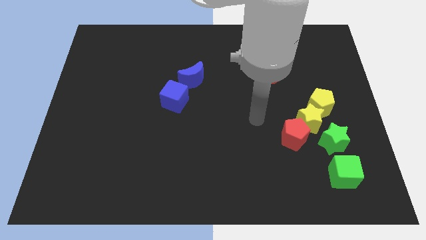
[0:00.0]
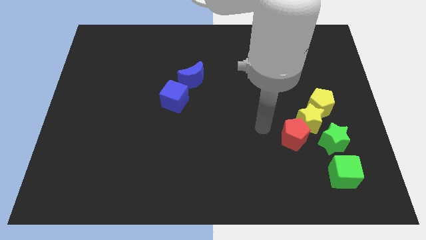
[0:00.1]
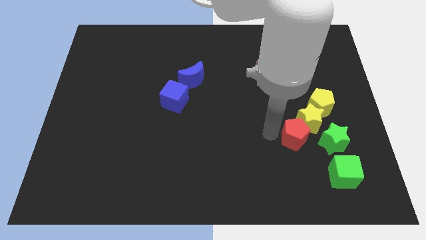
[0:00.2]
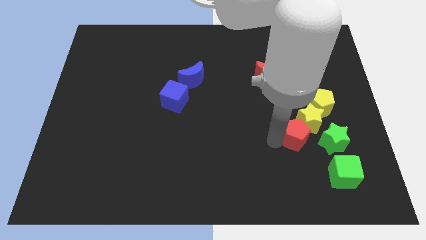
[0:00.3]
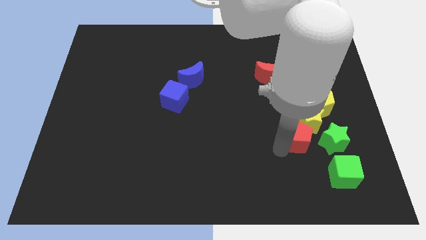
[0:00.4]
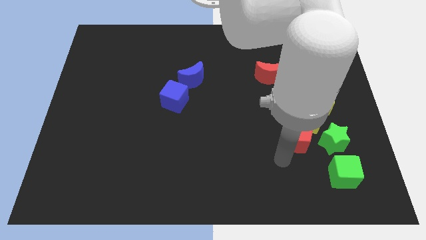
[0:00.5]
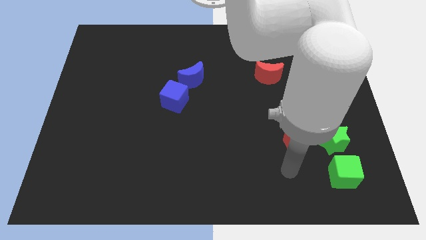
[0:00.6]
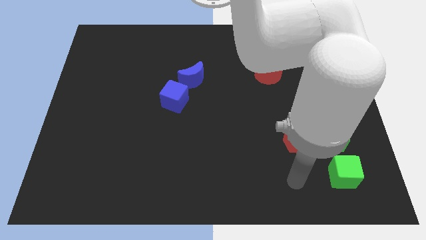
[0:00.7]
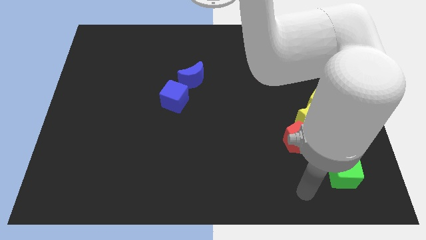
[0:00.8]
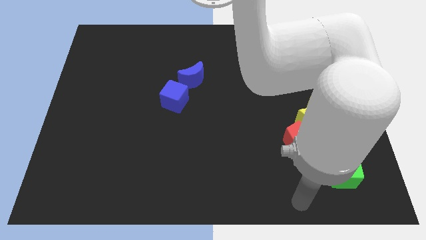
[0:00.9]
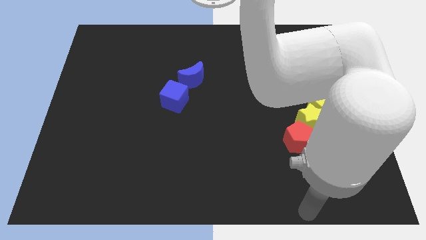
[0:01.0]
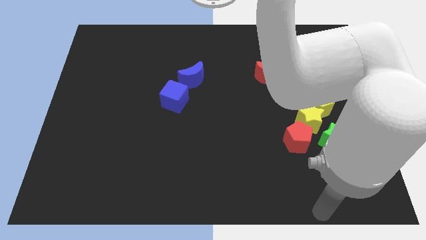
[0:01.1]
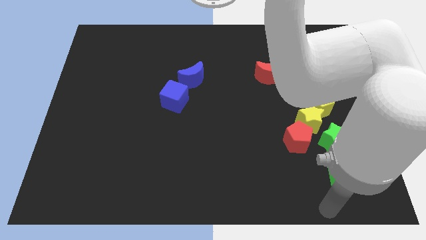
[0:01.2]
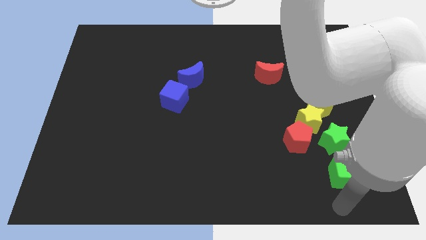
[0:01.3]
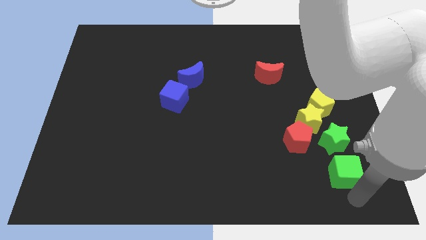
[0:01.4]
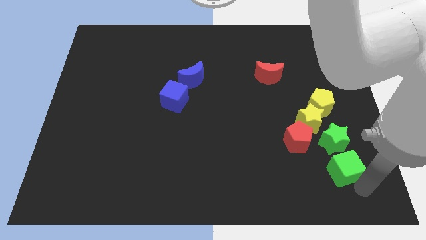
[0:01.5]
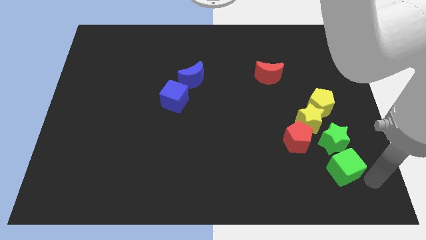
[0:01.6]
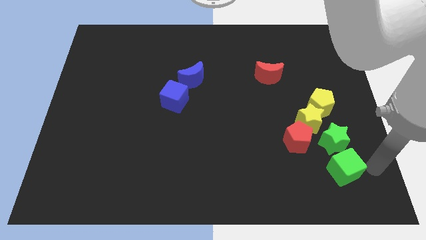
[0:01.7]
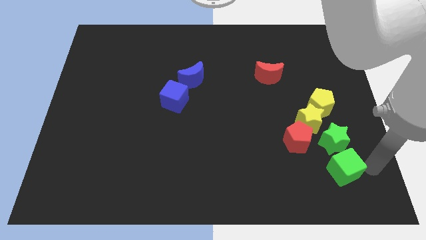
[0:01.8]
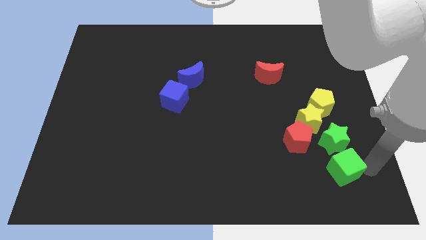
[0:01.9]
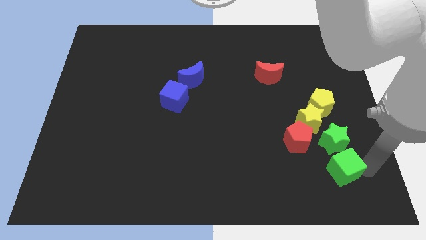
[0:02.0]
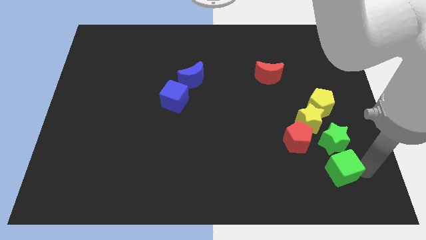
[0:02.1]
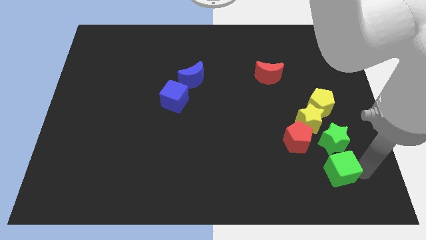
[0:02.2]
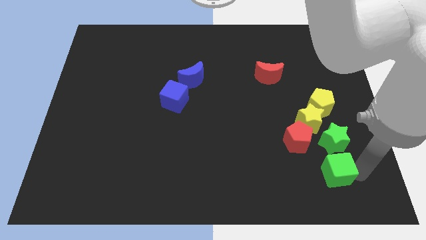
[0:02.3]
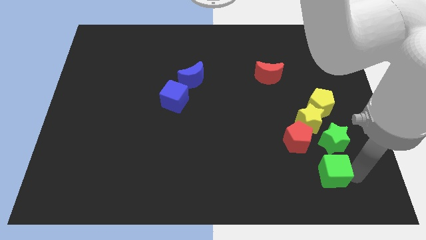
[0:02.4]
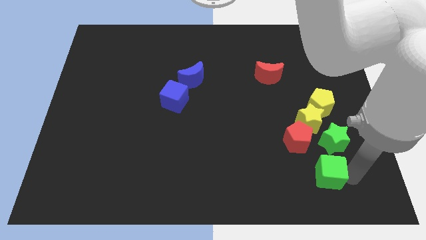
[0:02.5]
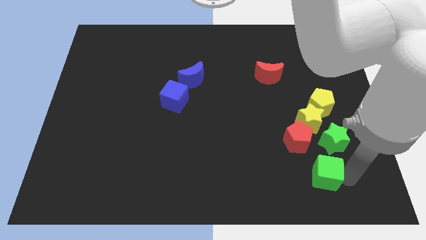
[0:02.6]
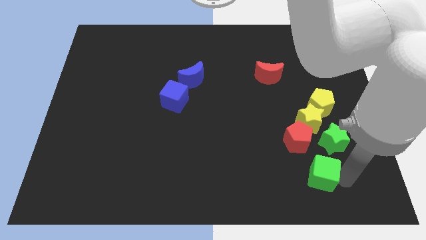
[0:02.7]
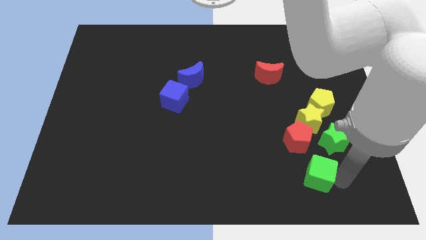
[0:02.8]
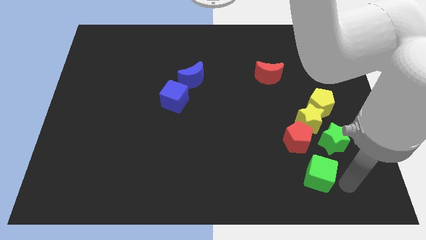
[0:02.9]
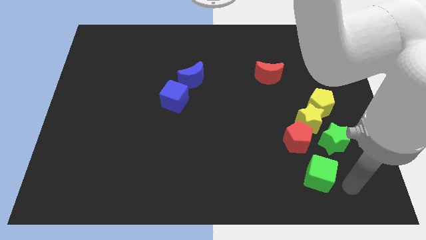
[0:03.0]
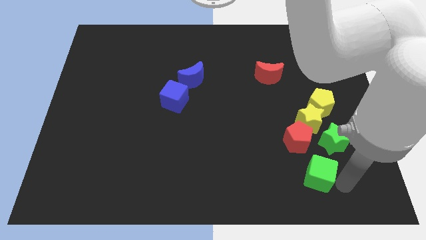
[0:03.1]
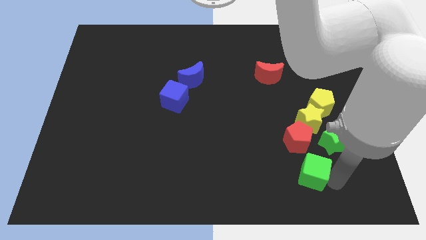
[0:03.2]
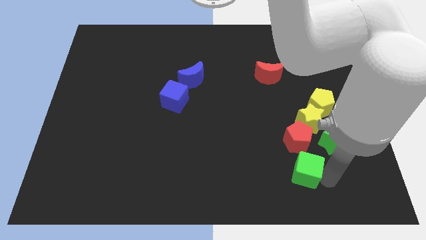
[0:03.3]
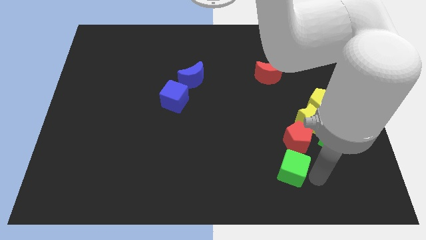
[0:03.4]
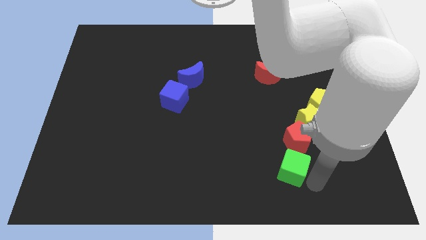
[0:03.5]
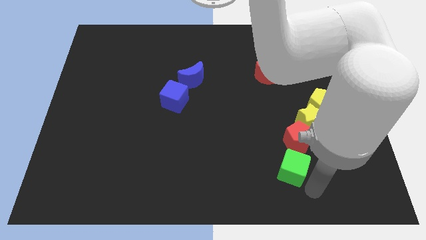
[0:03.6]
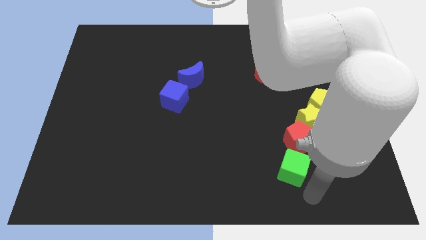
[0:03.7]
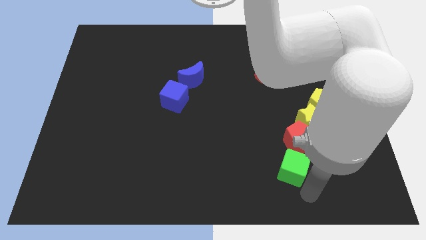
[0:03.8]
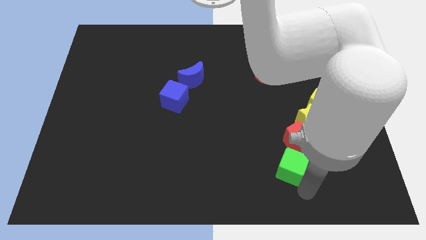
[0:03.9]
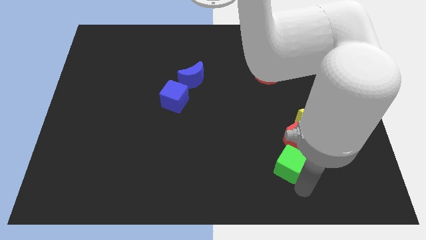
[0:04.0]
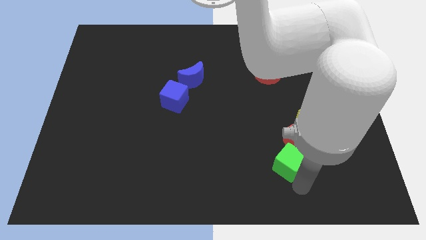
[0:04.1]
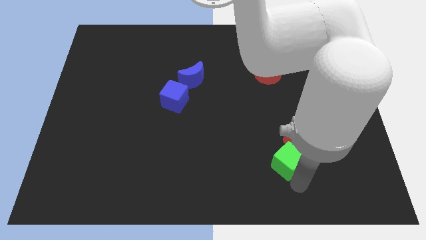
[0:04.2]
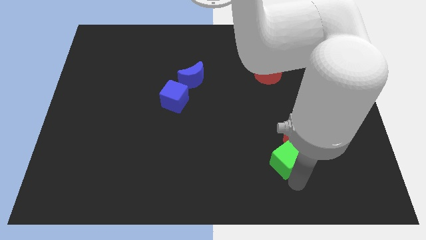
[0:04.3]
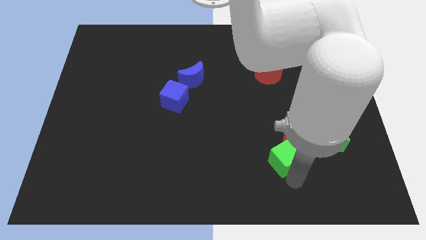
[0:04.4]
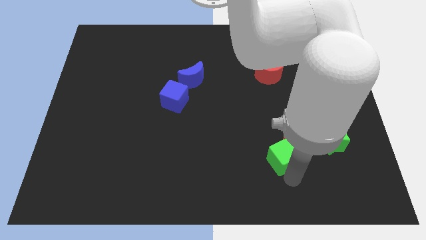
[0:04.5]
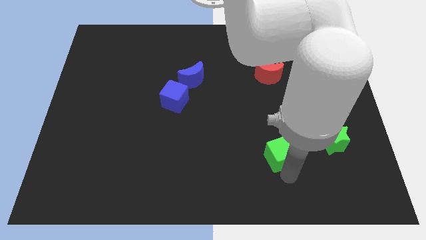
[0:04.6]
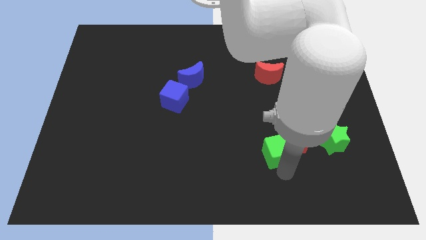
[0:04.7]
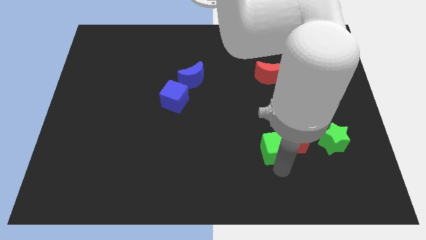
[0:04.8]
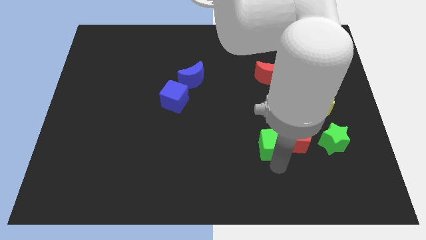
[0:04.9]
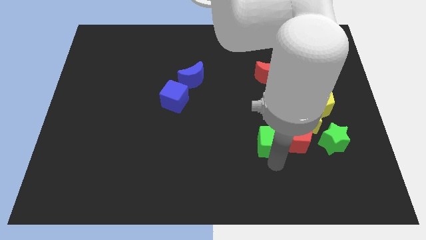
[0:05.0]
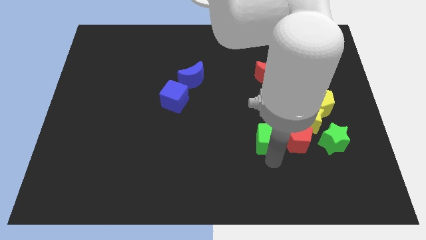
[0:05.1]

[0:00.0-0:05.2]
slide the green cube to the top left of the red pentagon

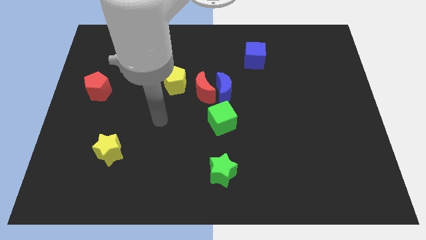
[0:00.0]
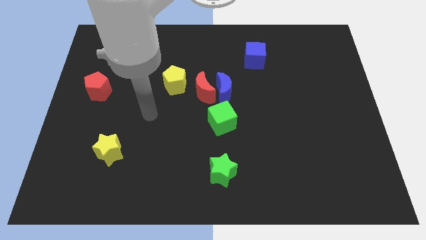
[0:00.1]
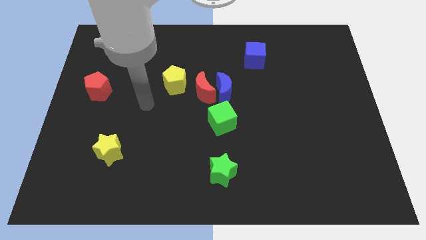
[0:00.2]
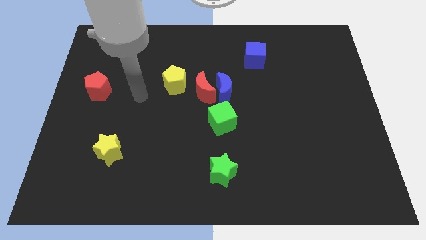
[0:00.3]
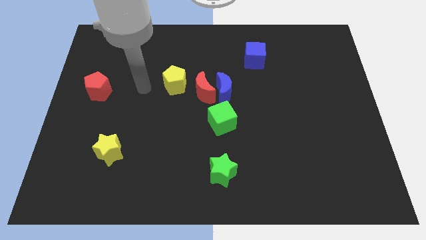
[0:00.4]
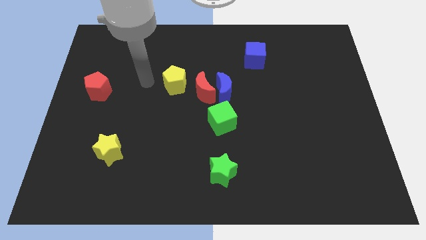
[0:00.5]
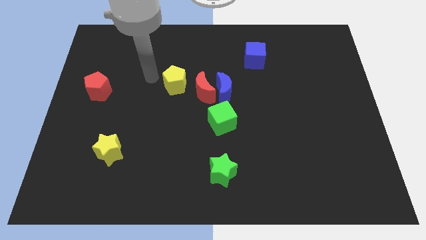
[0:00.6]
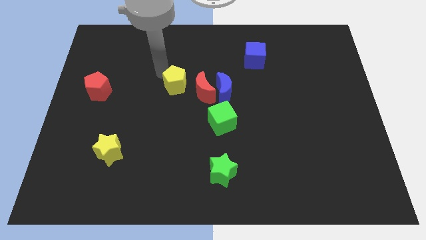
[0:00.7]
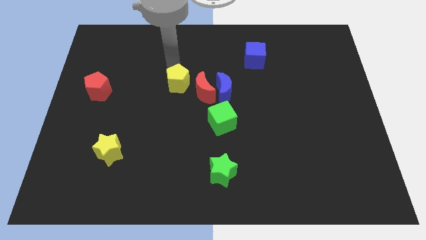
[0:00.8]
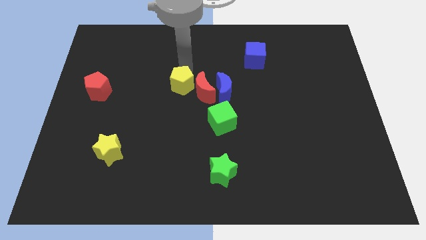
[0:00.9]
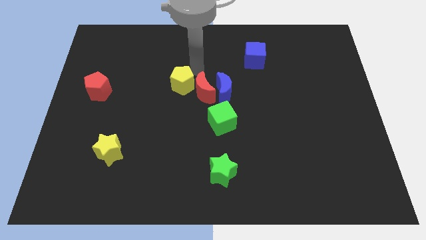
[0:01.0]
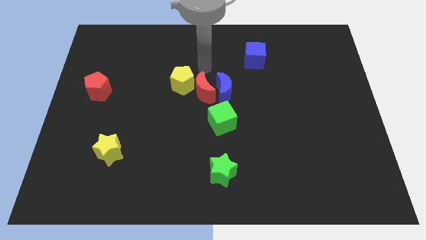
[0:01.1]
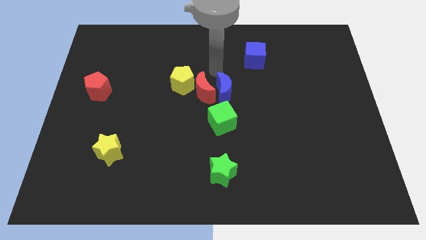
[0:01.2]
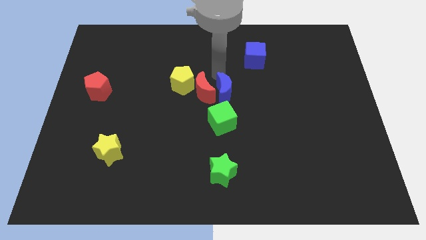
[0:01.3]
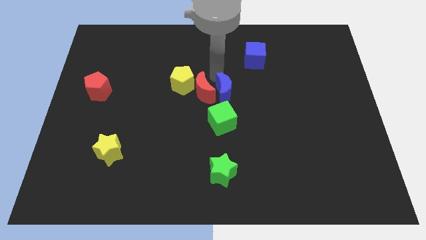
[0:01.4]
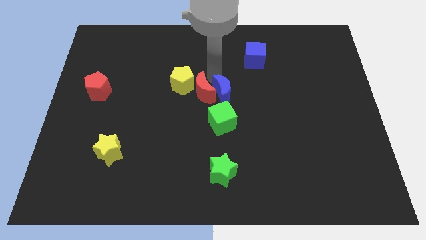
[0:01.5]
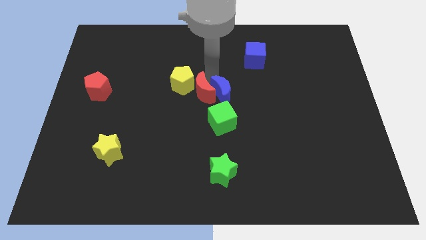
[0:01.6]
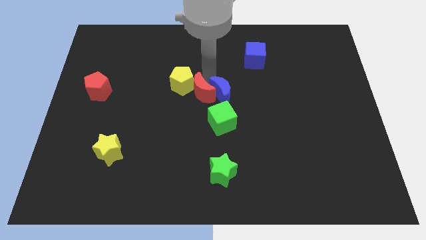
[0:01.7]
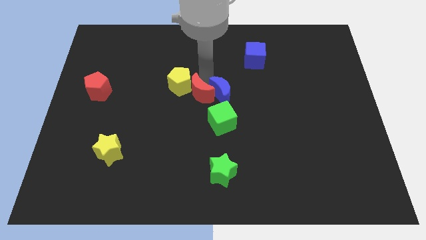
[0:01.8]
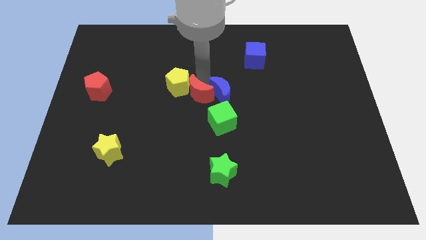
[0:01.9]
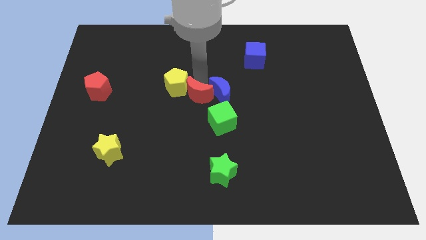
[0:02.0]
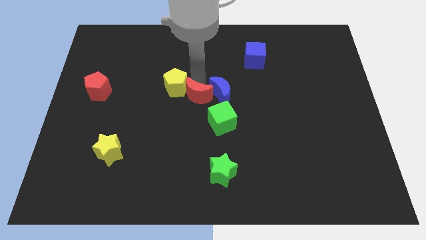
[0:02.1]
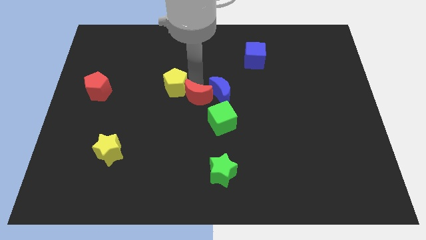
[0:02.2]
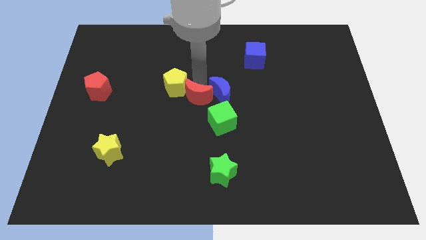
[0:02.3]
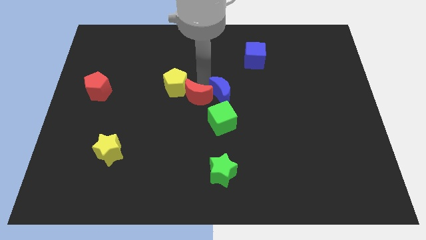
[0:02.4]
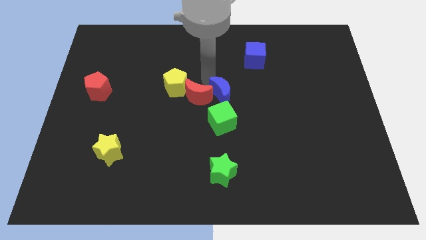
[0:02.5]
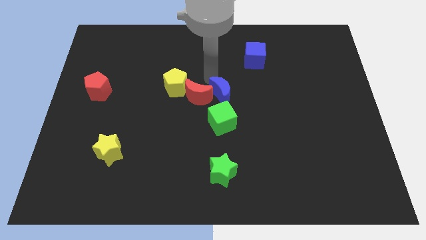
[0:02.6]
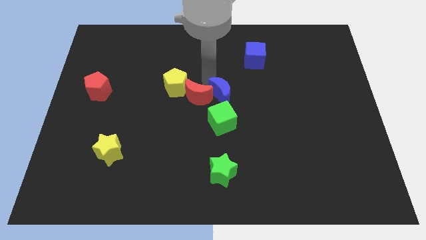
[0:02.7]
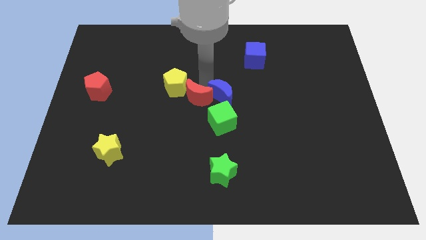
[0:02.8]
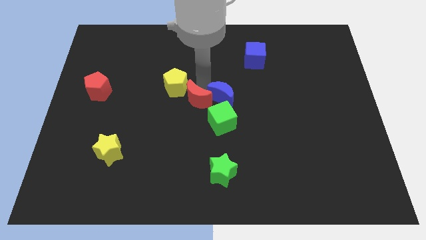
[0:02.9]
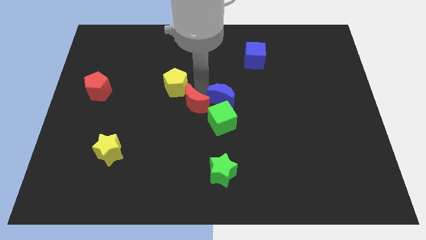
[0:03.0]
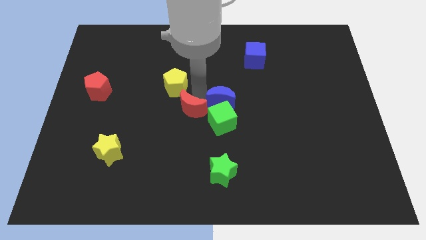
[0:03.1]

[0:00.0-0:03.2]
slide the red moon left of the green cube
